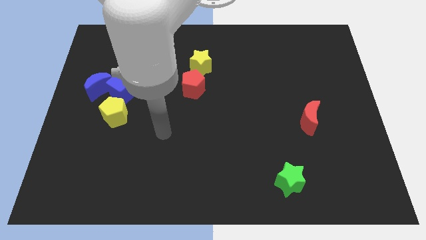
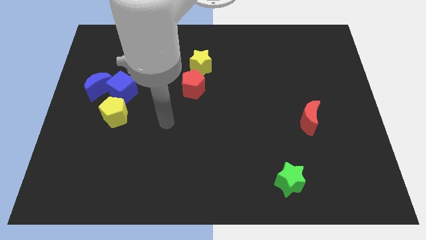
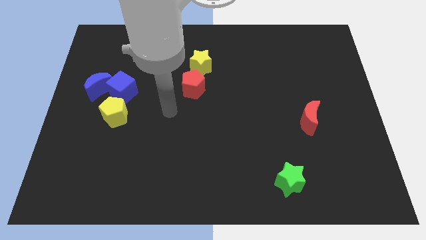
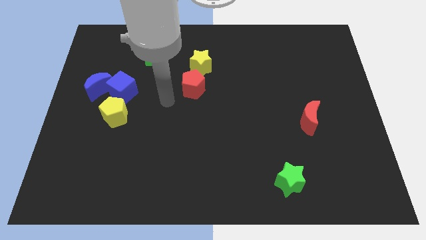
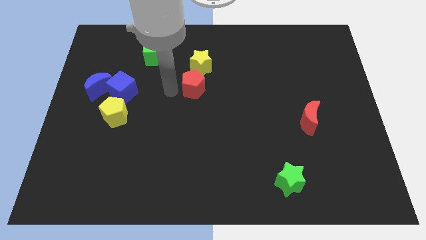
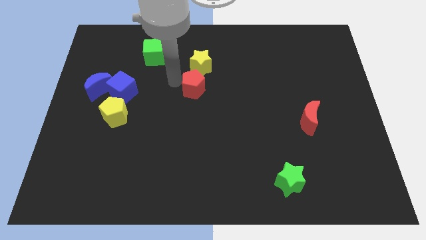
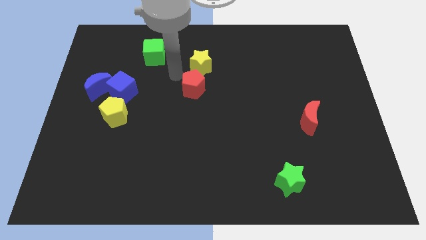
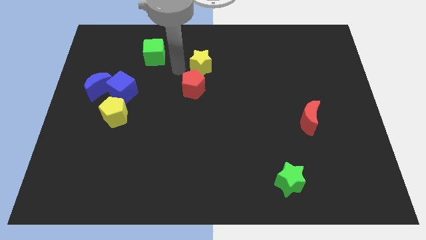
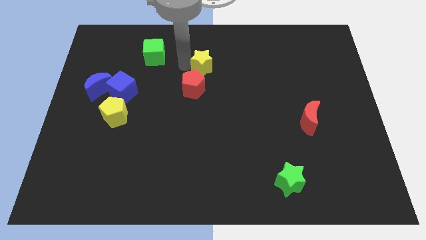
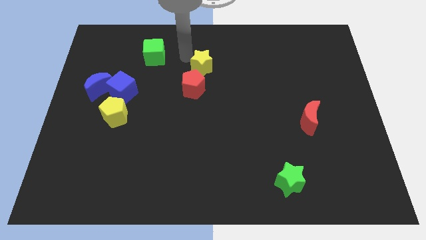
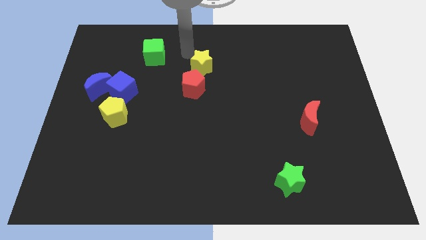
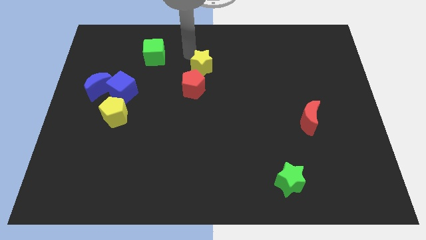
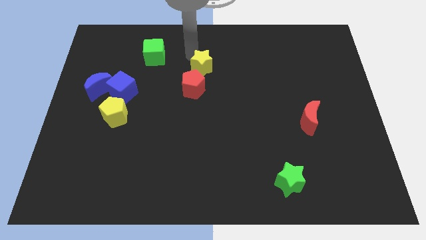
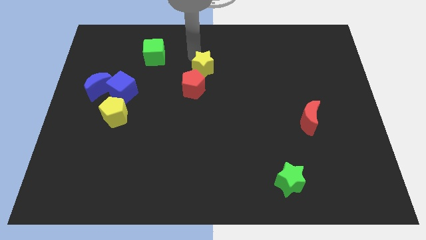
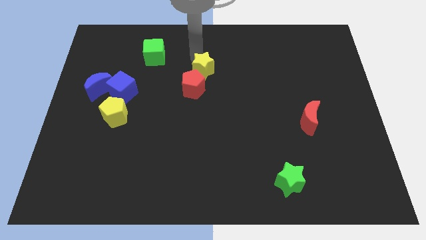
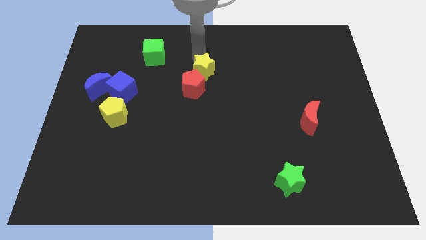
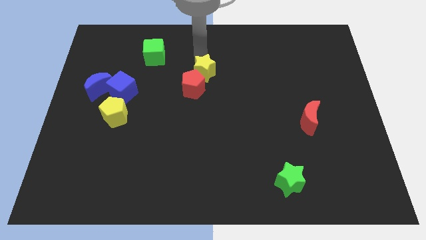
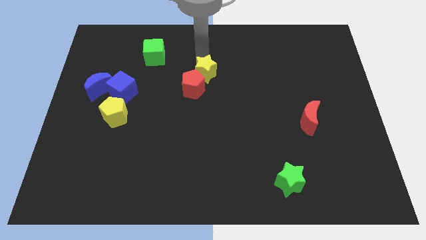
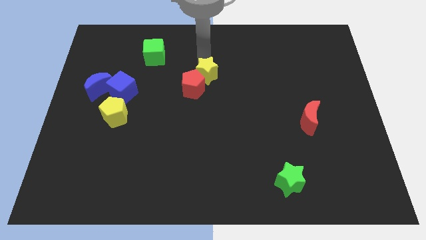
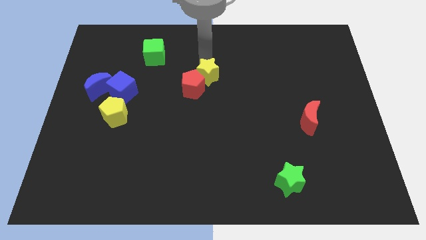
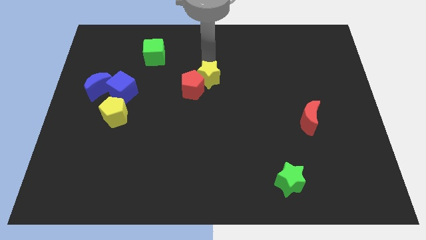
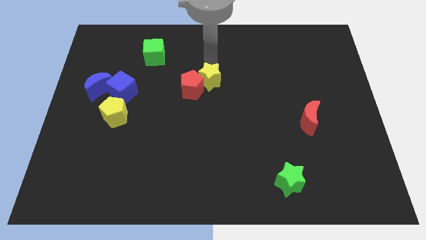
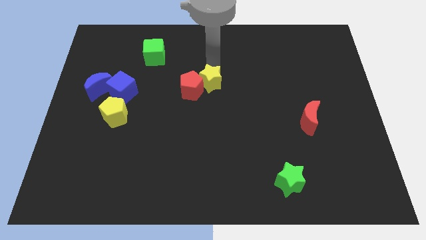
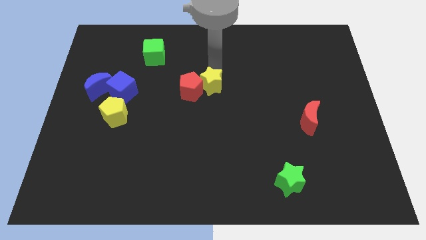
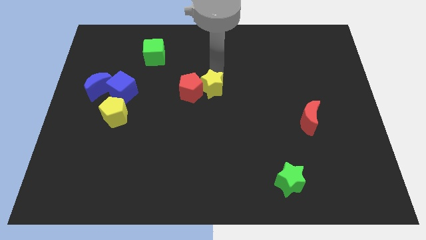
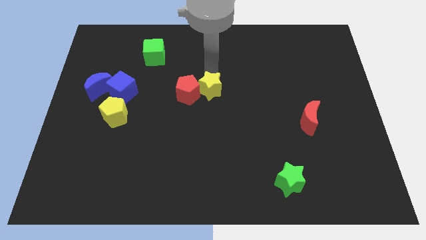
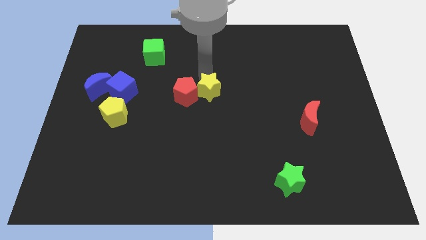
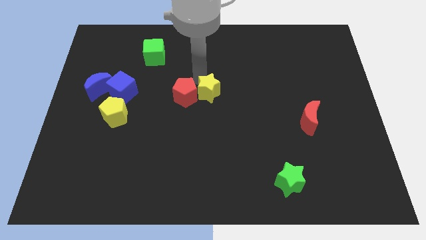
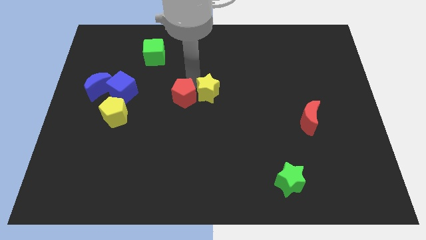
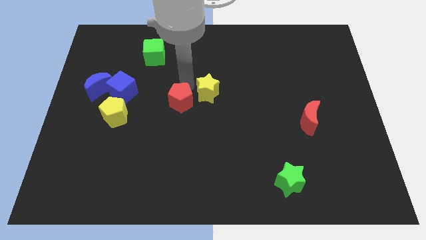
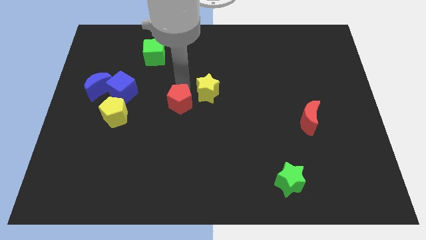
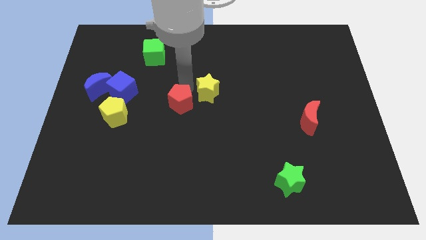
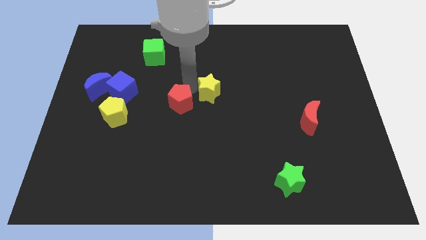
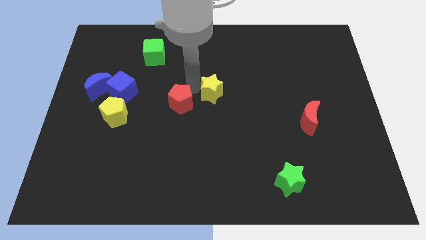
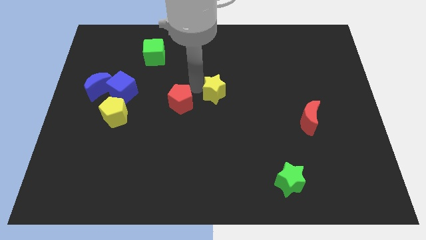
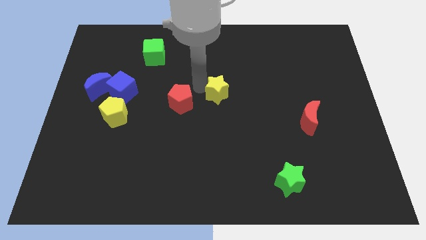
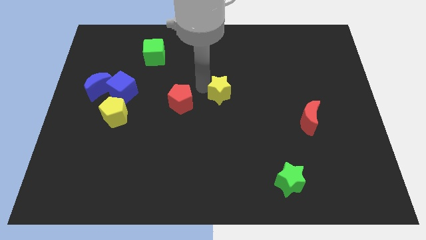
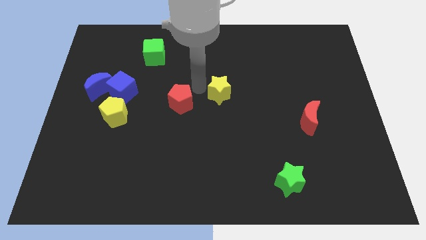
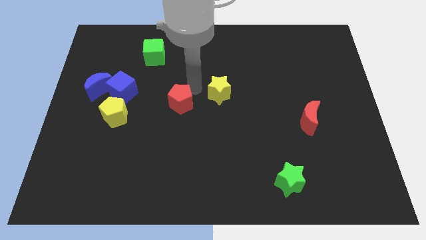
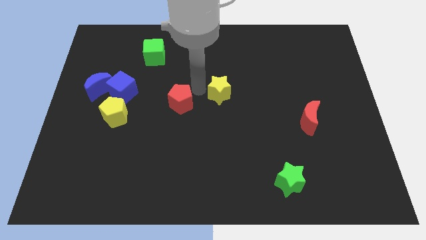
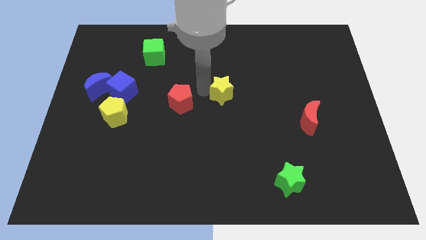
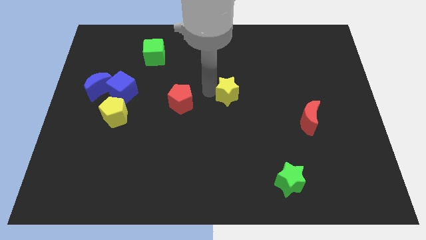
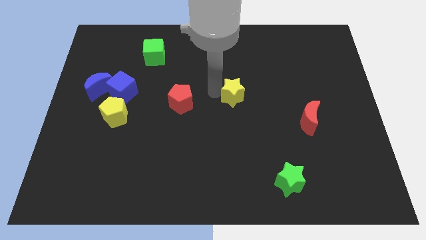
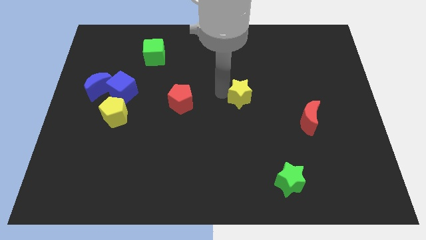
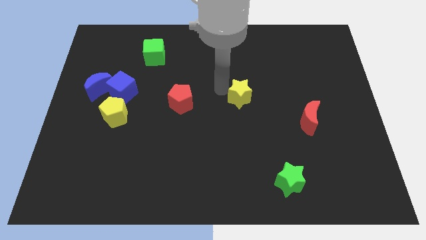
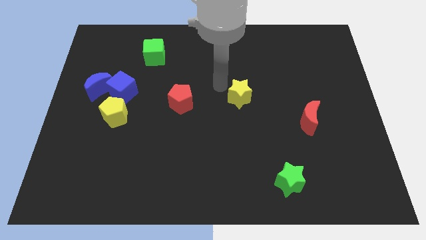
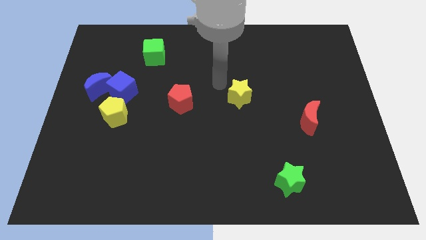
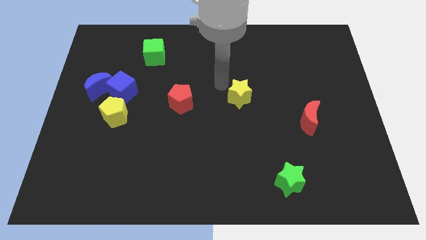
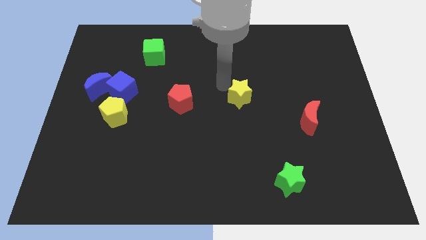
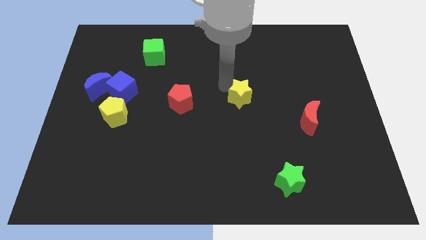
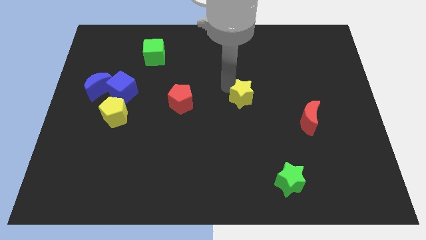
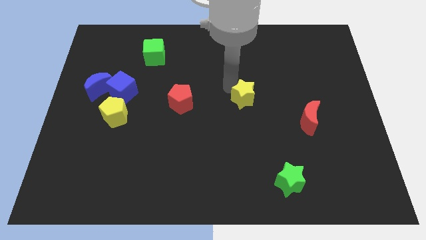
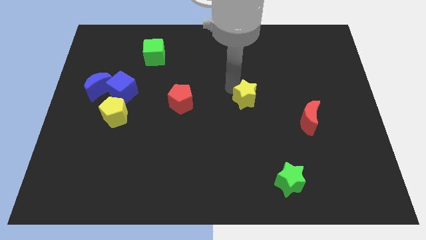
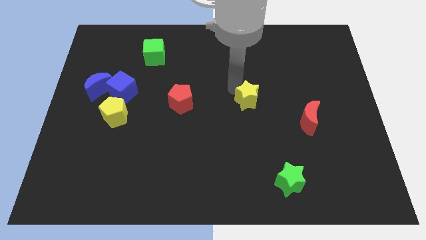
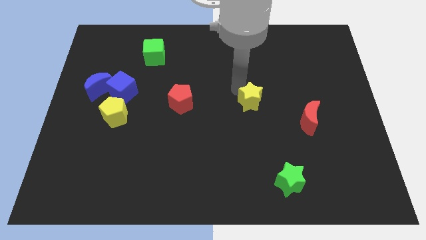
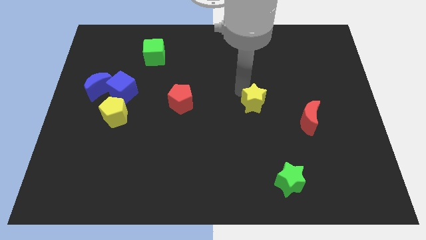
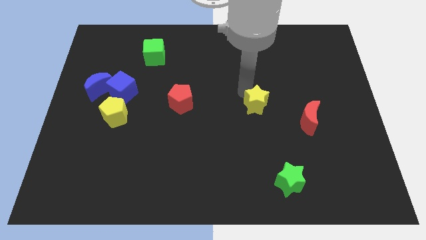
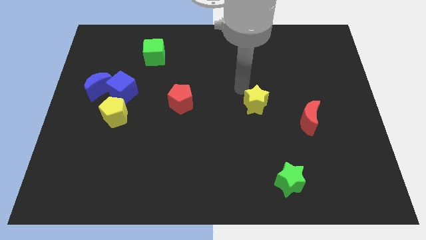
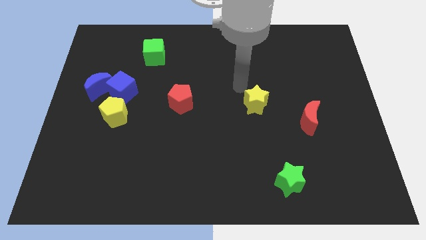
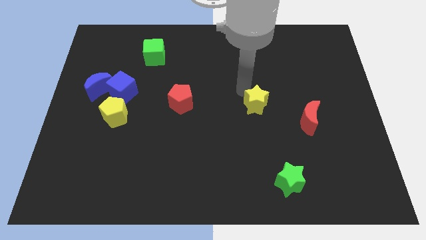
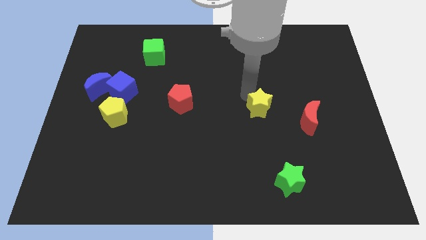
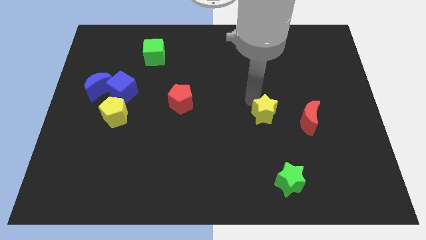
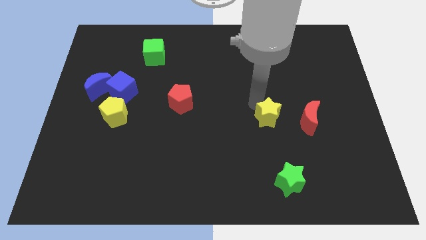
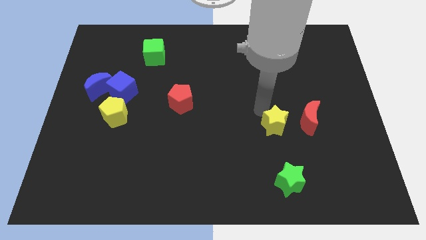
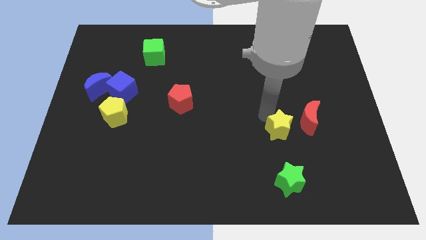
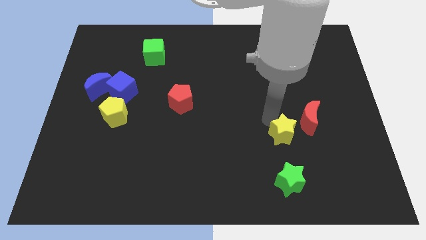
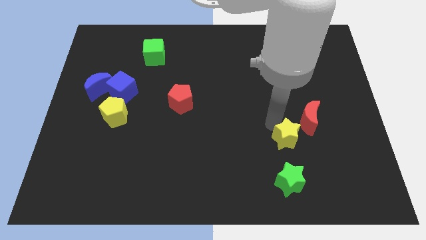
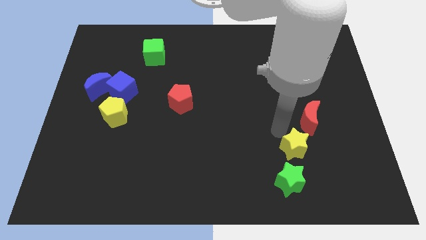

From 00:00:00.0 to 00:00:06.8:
slide the yellow star to the bottom side of the red moon

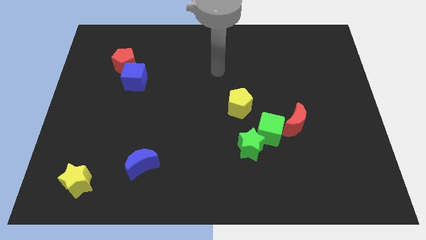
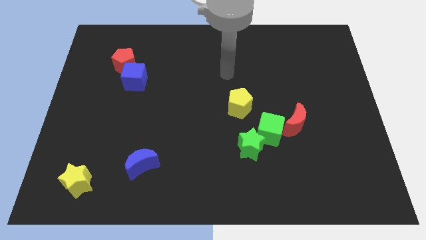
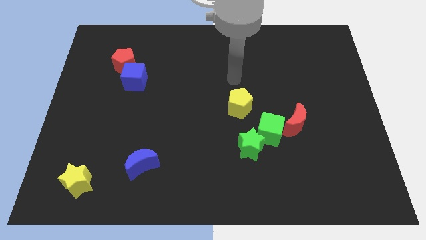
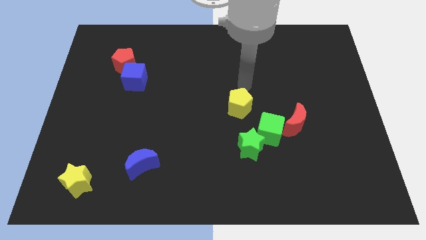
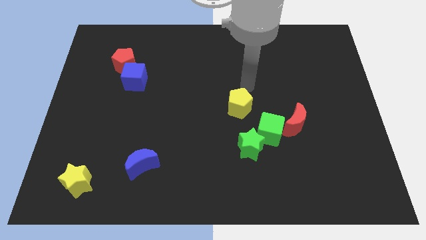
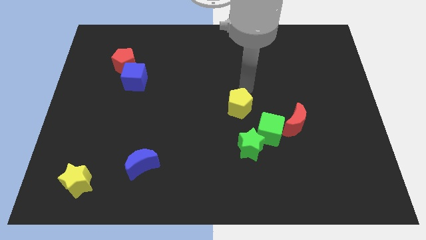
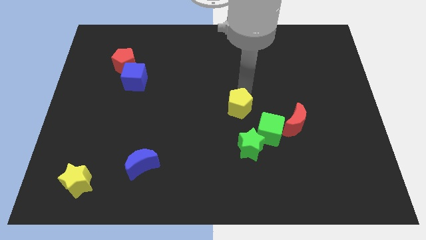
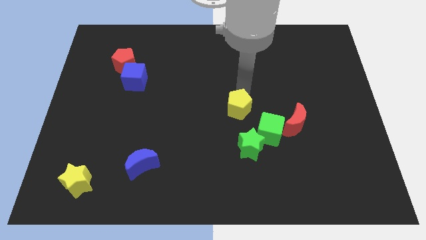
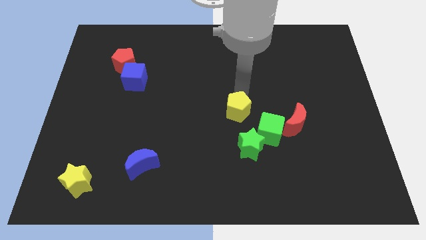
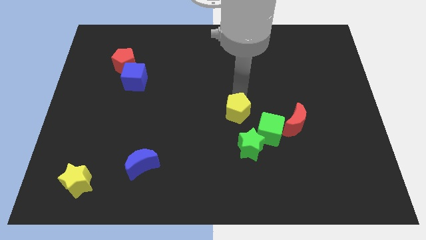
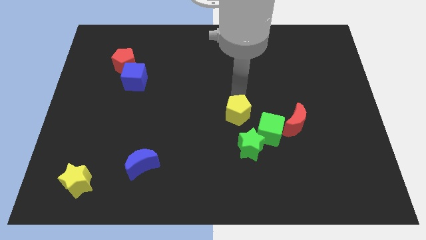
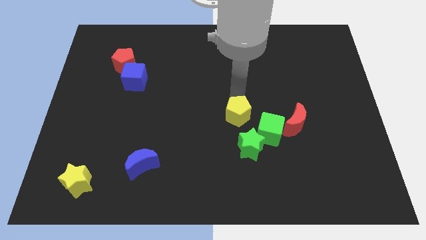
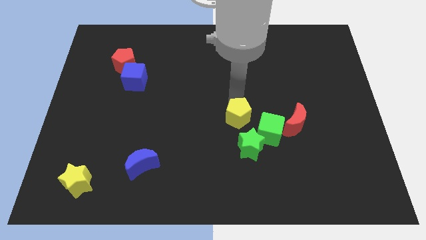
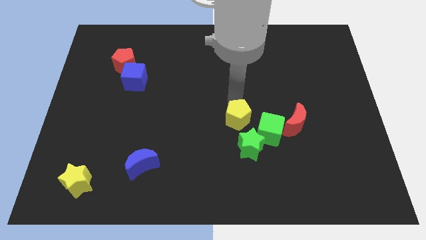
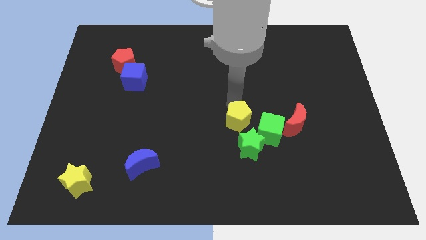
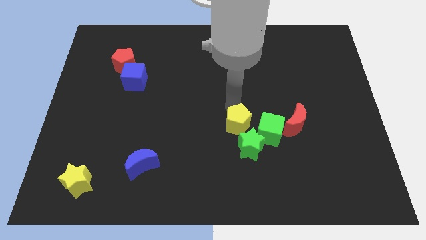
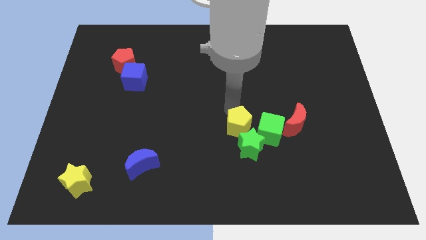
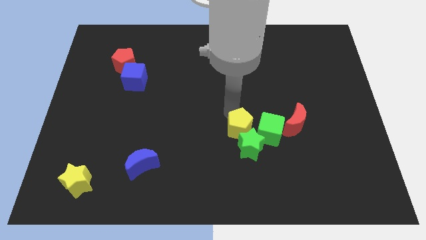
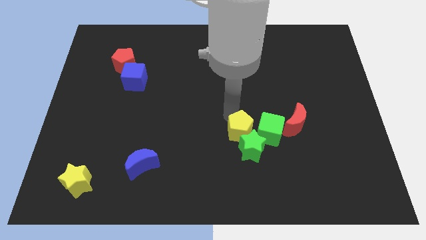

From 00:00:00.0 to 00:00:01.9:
move the yellow pentagon to the bottom left side of the green cube
